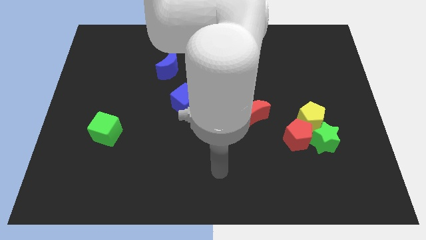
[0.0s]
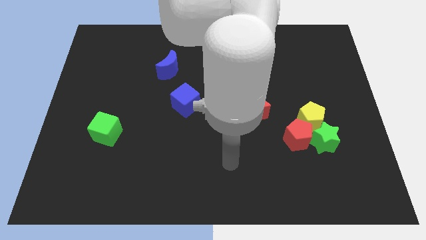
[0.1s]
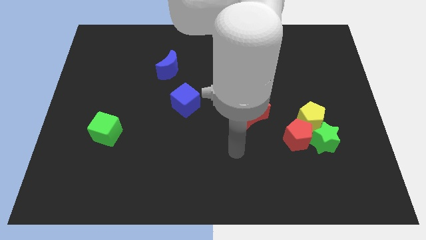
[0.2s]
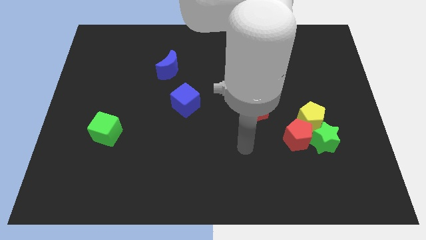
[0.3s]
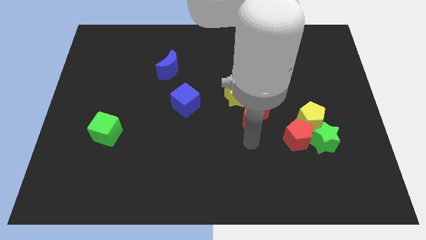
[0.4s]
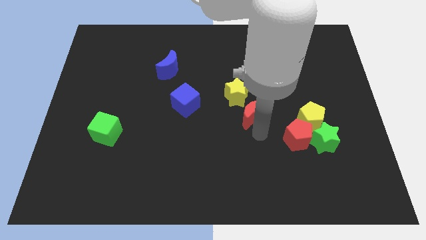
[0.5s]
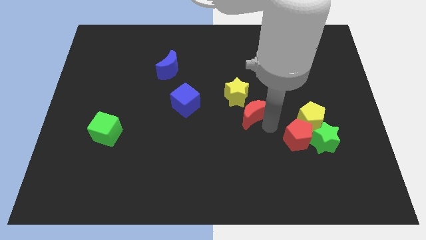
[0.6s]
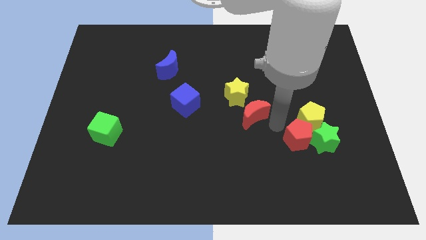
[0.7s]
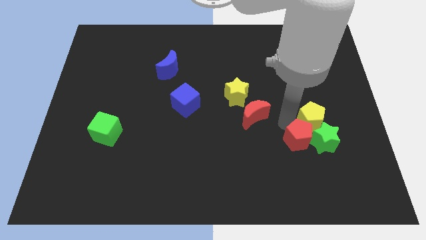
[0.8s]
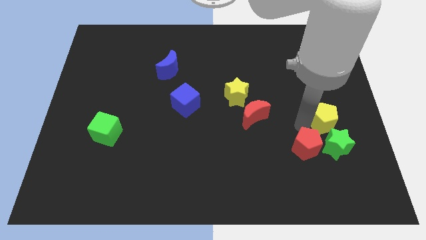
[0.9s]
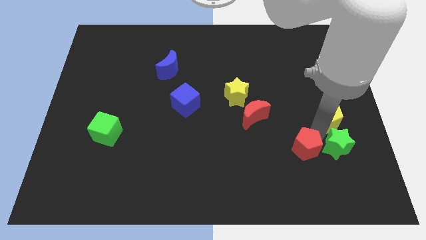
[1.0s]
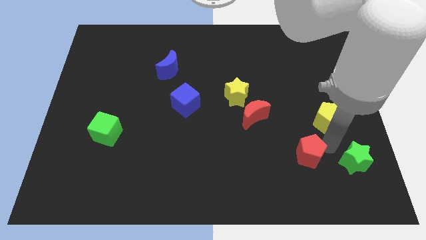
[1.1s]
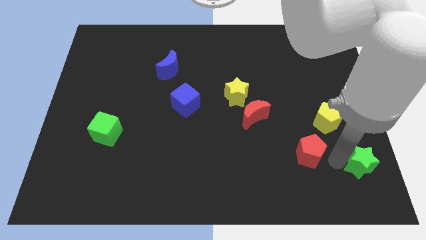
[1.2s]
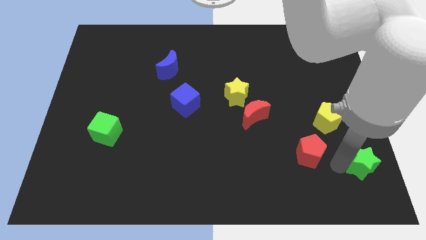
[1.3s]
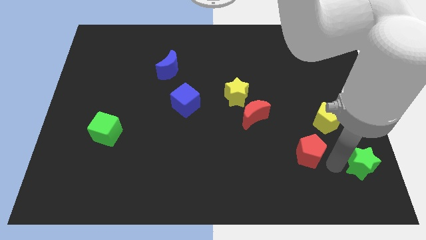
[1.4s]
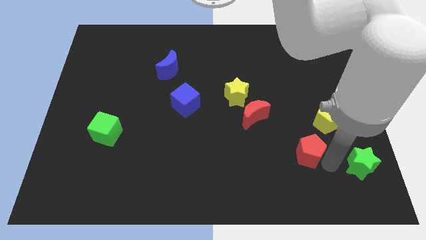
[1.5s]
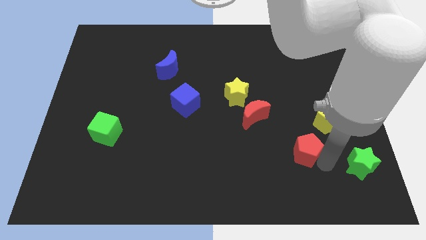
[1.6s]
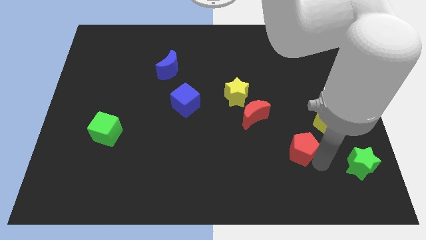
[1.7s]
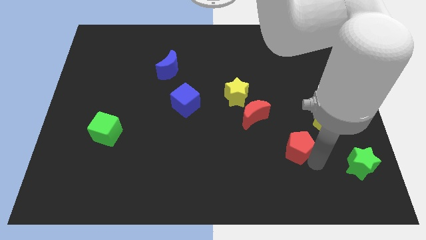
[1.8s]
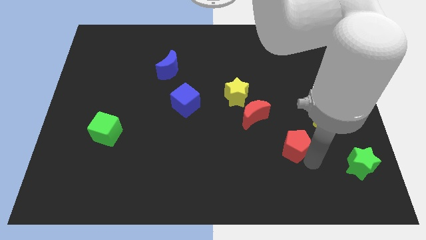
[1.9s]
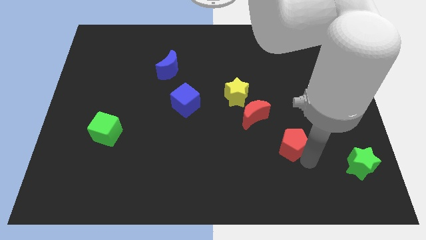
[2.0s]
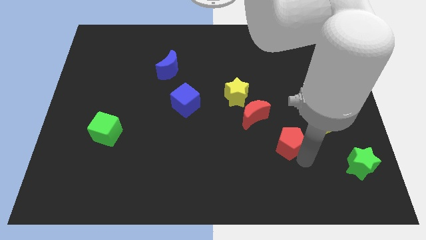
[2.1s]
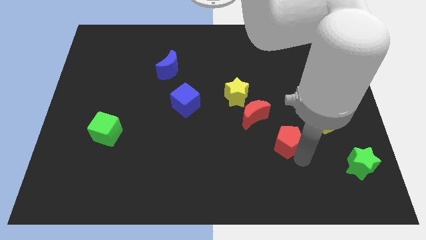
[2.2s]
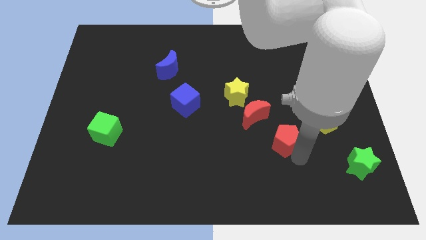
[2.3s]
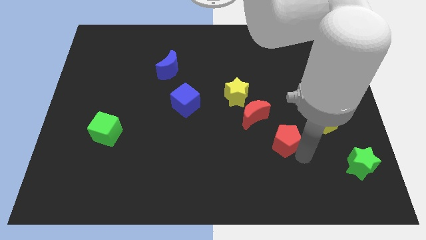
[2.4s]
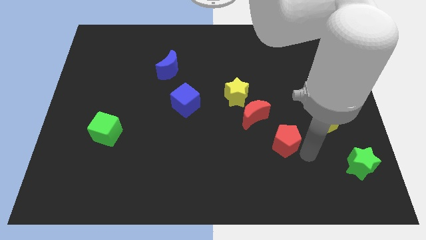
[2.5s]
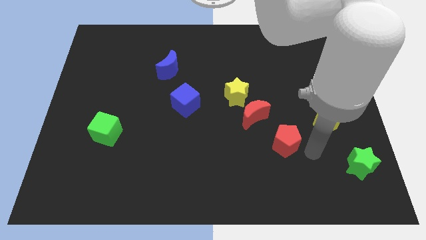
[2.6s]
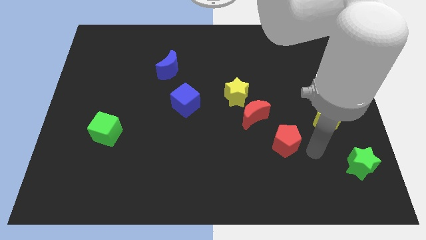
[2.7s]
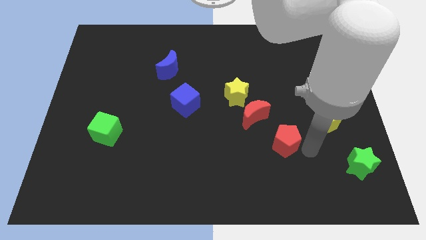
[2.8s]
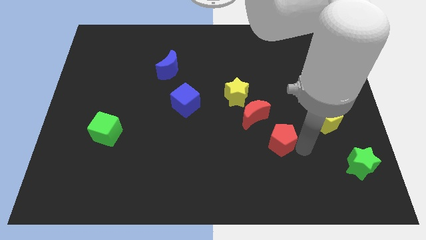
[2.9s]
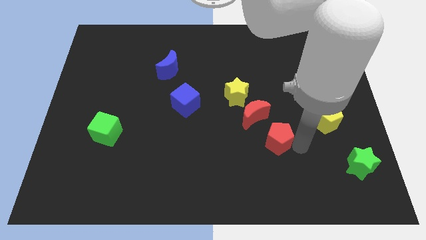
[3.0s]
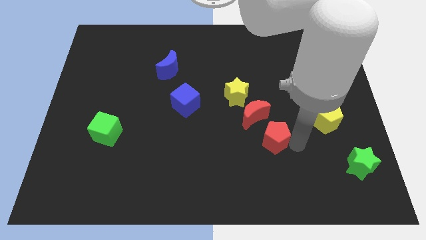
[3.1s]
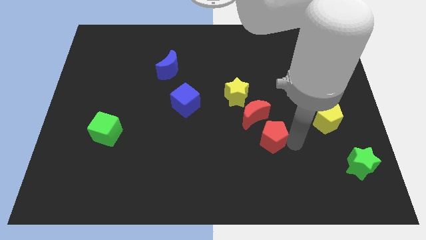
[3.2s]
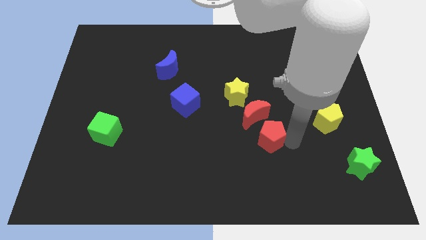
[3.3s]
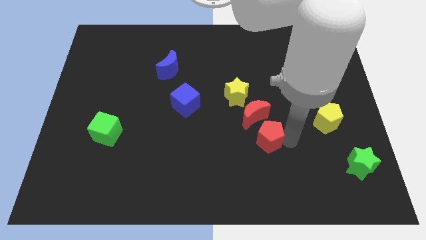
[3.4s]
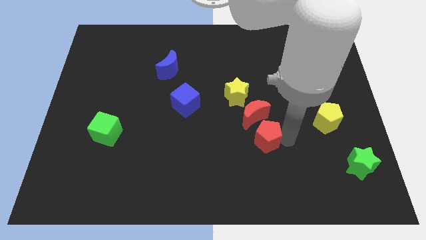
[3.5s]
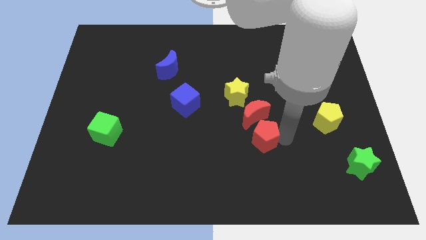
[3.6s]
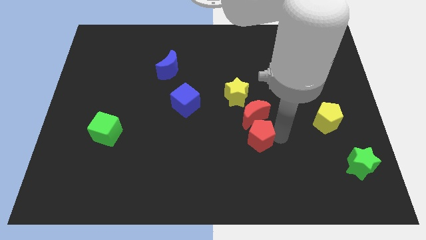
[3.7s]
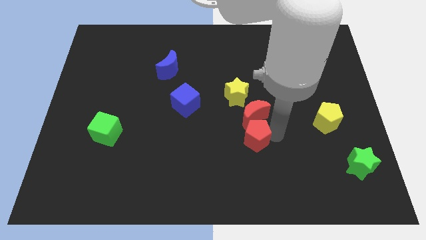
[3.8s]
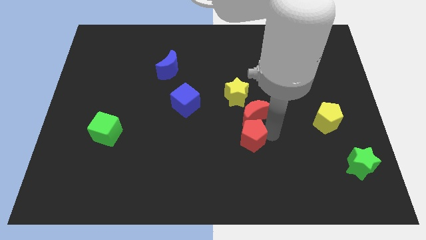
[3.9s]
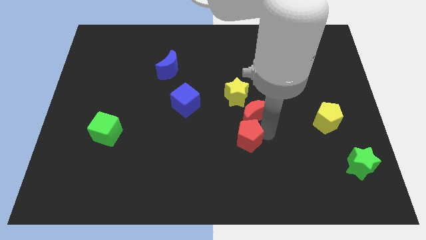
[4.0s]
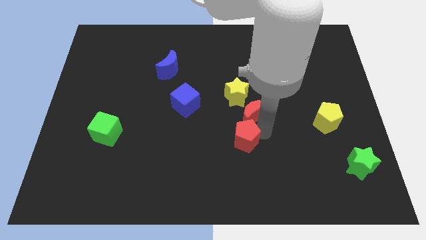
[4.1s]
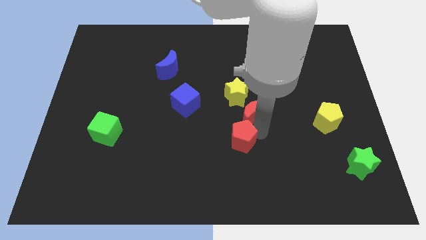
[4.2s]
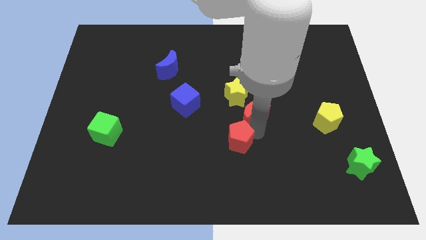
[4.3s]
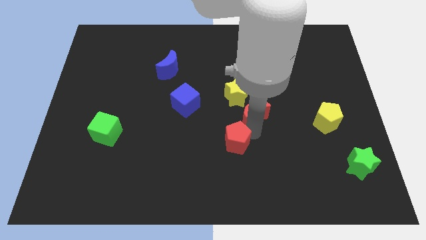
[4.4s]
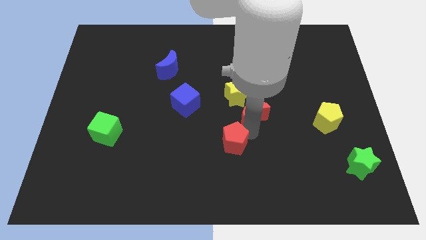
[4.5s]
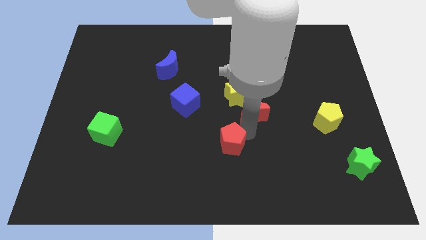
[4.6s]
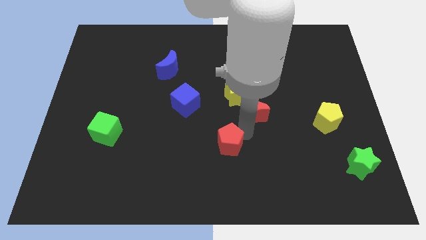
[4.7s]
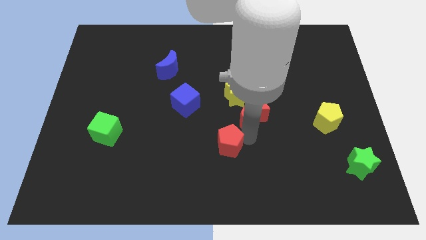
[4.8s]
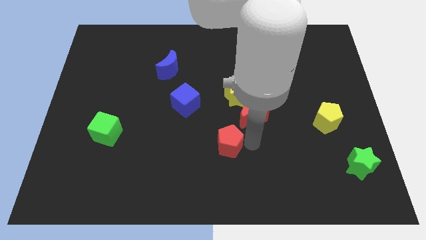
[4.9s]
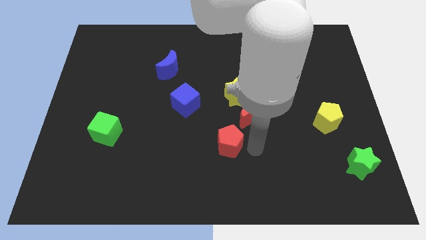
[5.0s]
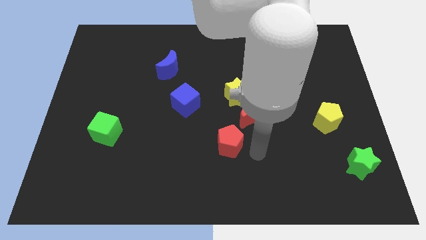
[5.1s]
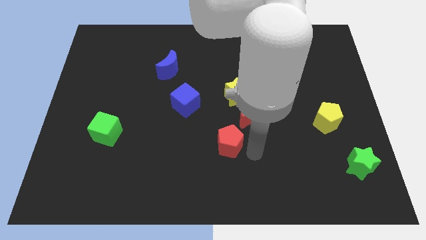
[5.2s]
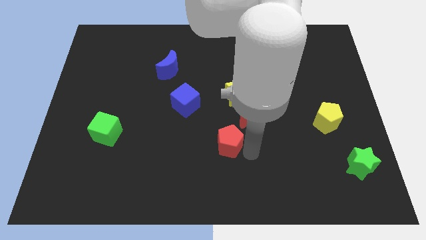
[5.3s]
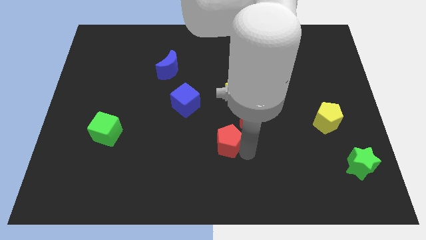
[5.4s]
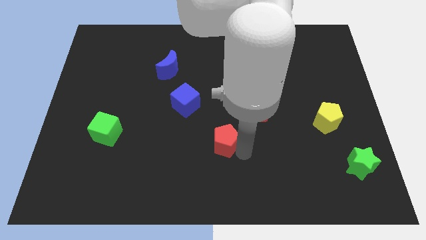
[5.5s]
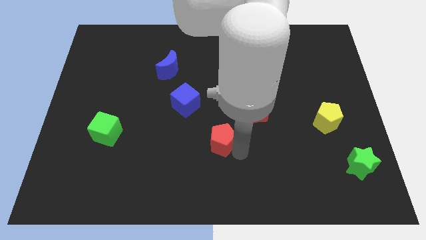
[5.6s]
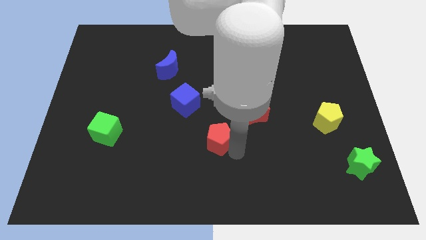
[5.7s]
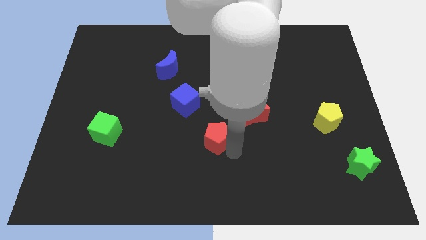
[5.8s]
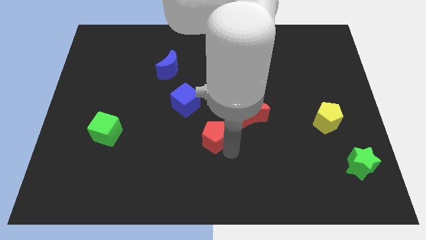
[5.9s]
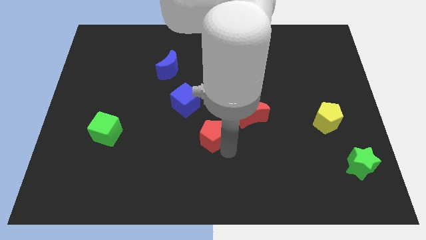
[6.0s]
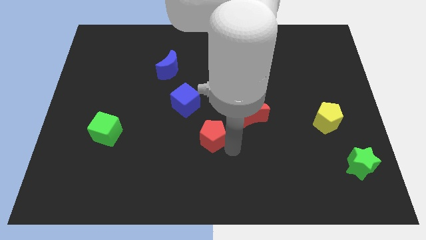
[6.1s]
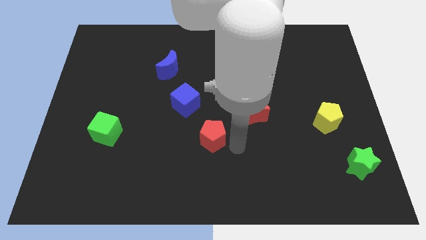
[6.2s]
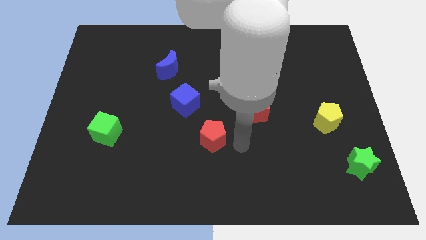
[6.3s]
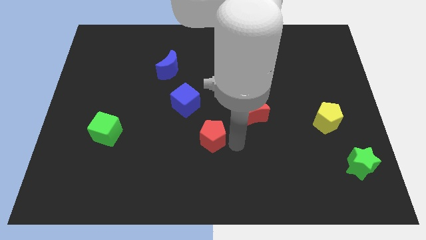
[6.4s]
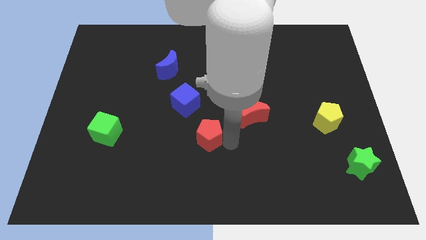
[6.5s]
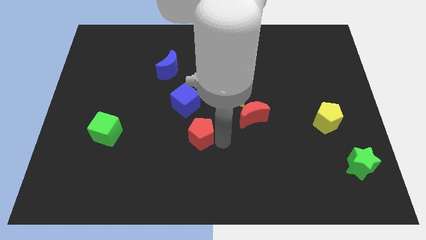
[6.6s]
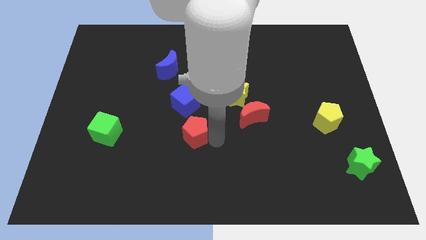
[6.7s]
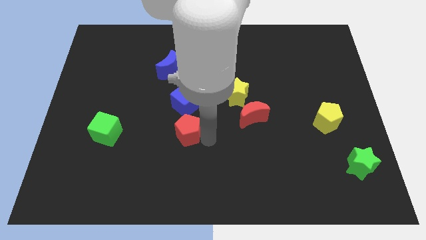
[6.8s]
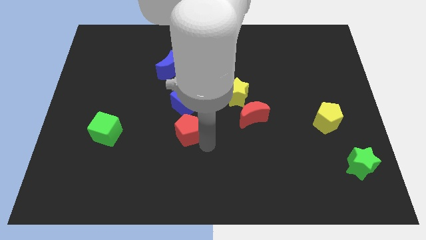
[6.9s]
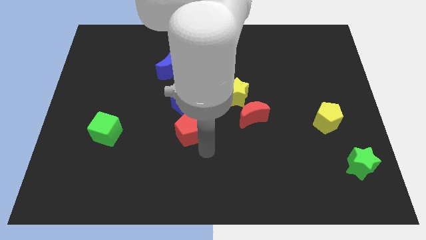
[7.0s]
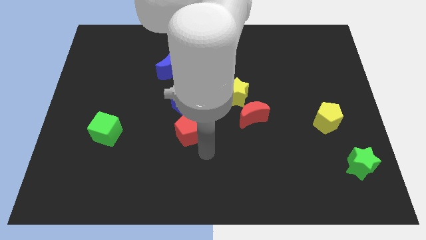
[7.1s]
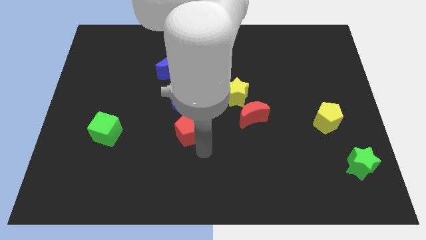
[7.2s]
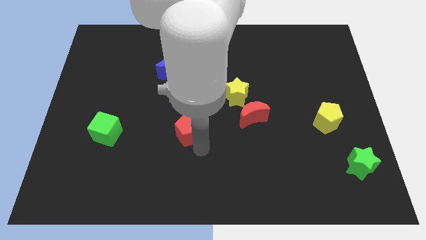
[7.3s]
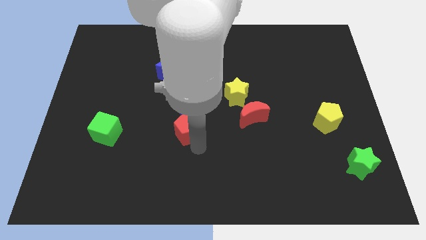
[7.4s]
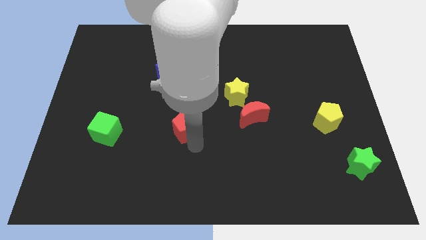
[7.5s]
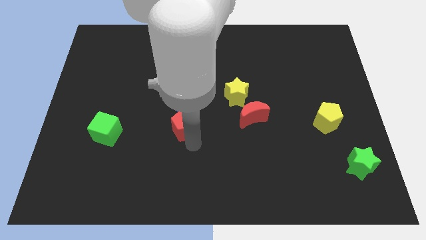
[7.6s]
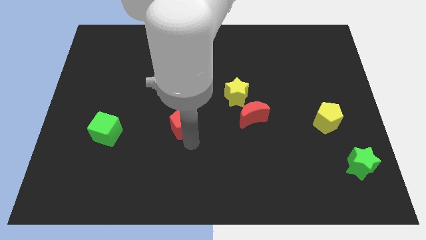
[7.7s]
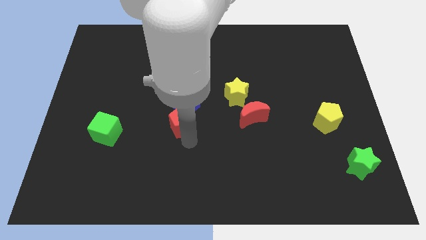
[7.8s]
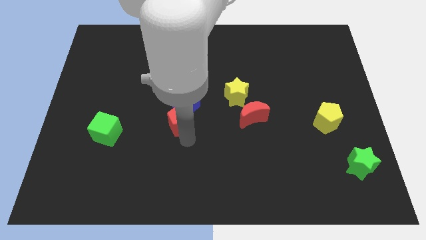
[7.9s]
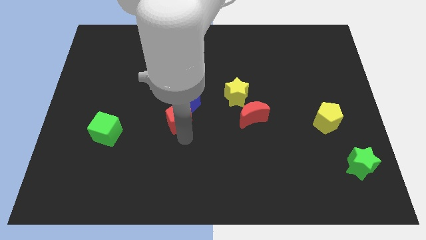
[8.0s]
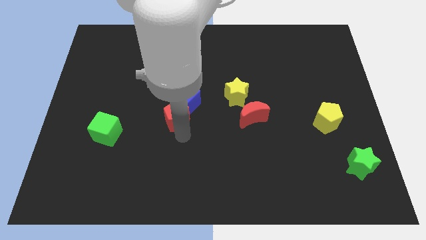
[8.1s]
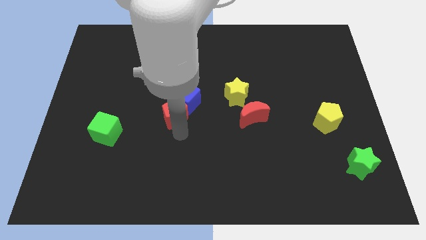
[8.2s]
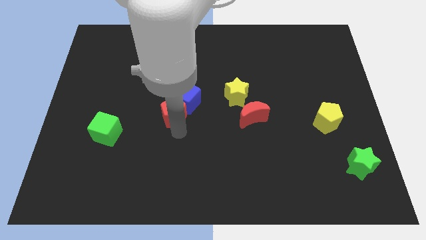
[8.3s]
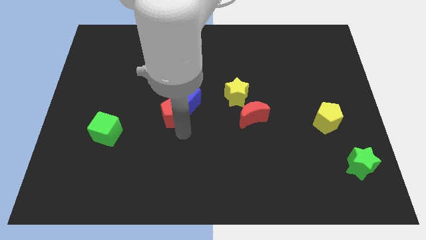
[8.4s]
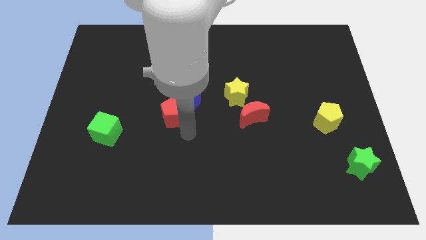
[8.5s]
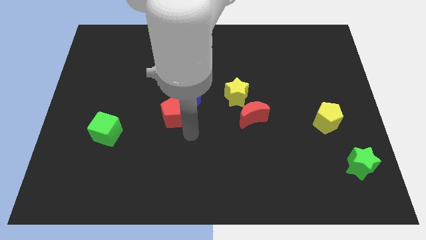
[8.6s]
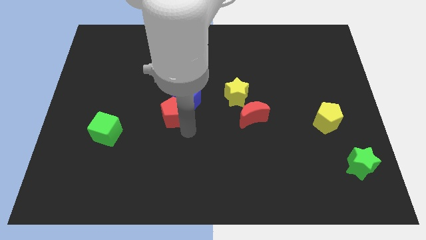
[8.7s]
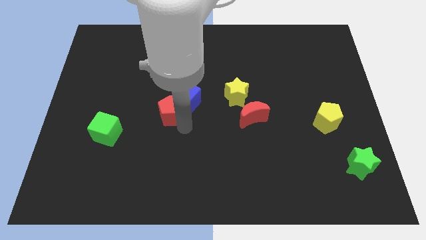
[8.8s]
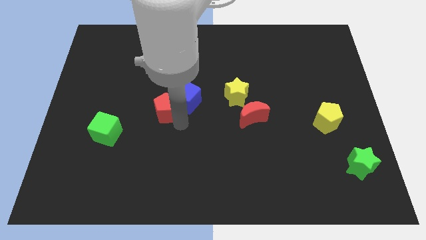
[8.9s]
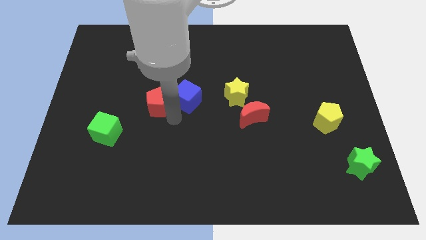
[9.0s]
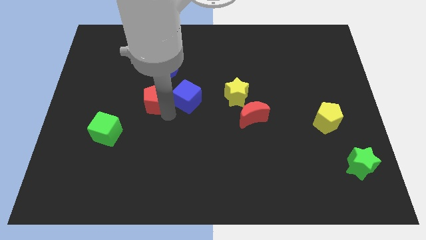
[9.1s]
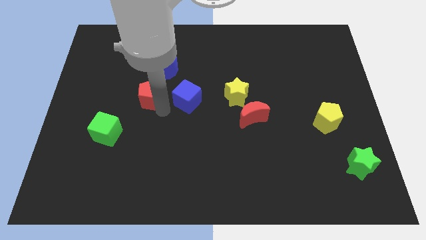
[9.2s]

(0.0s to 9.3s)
move the red pentagon to the bottom left of the blue moon
